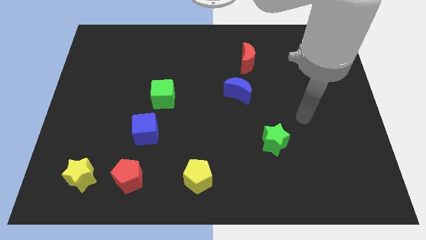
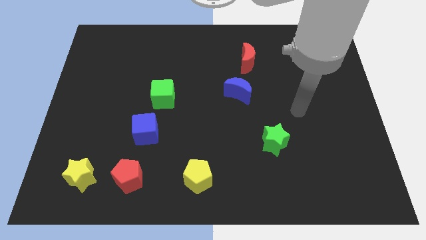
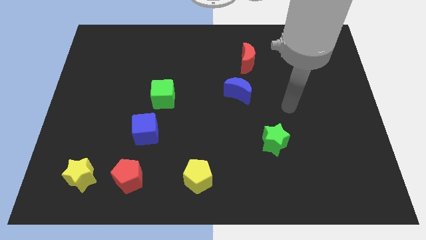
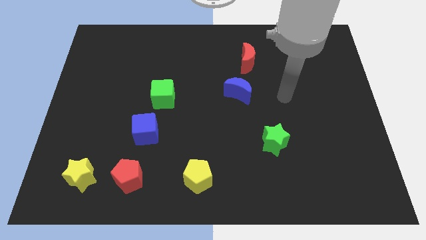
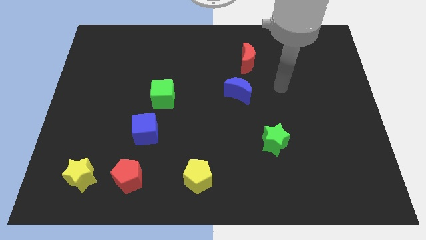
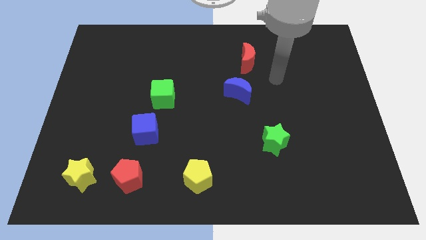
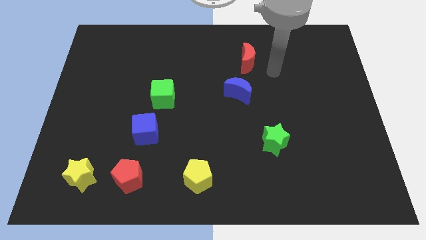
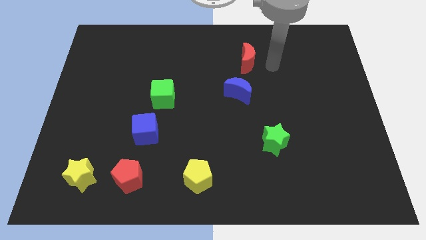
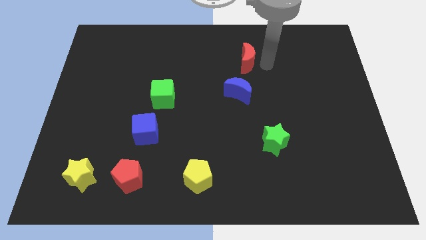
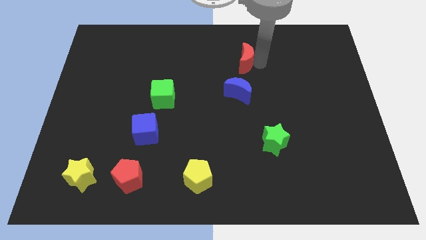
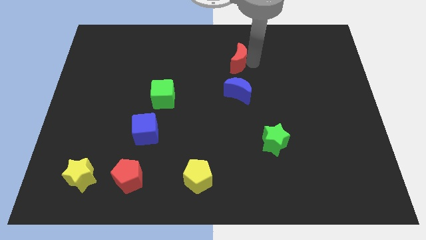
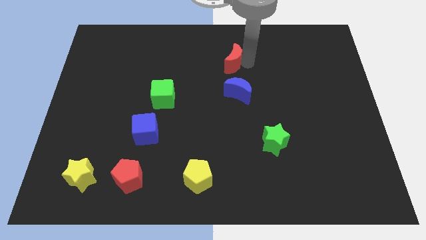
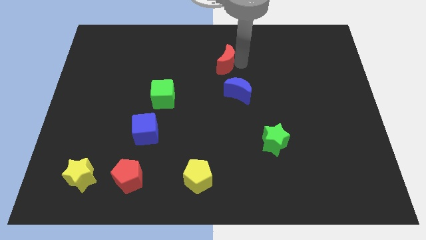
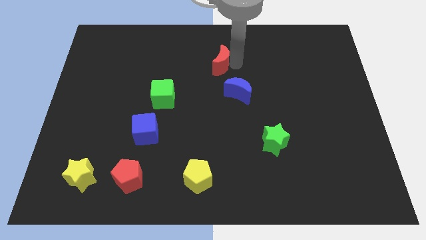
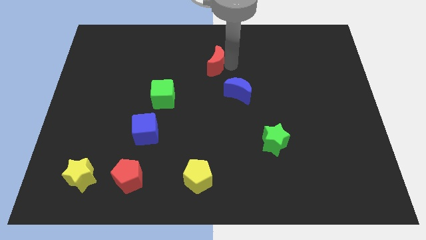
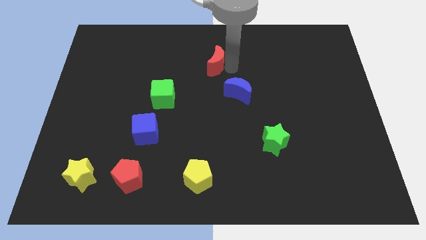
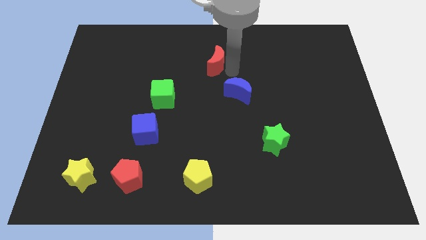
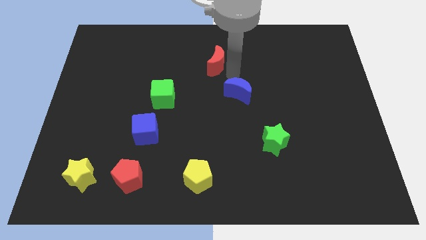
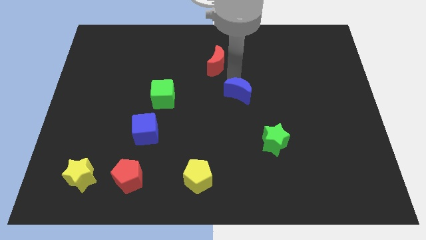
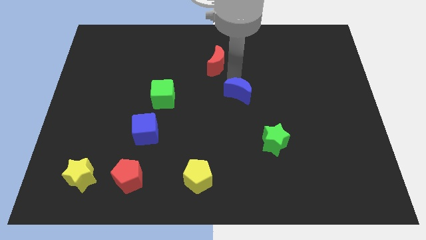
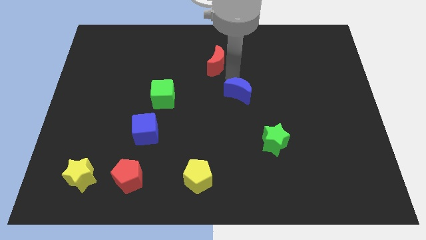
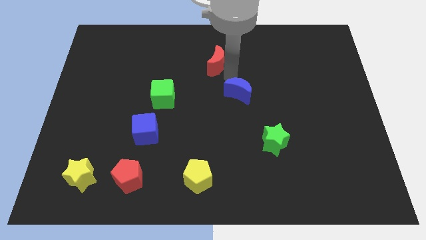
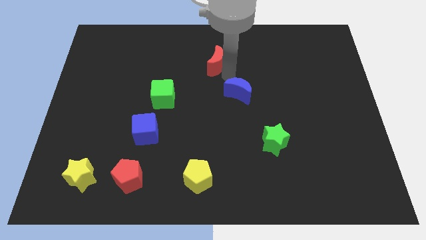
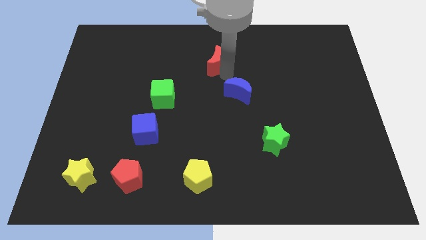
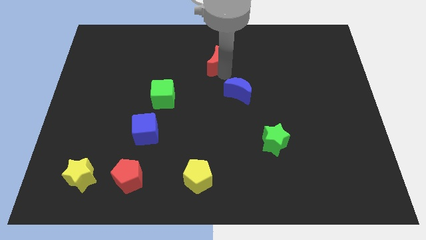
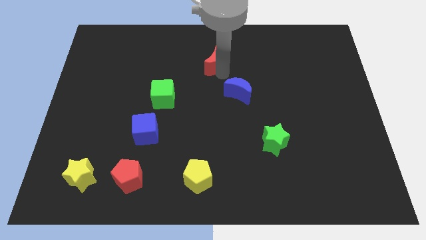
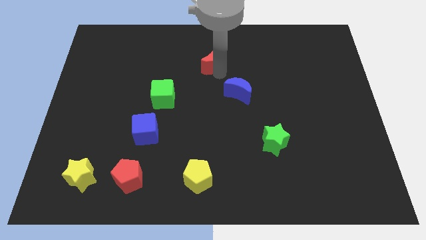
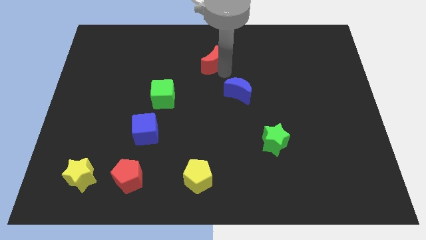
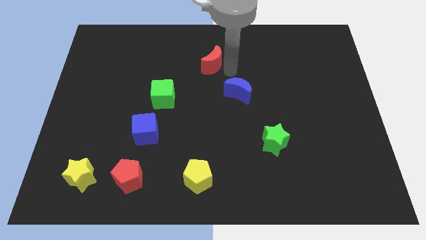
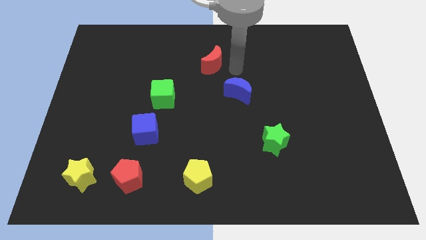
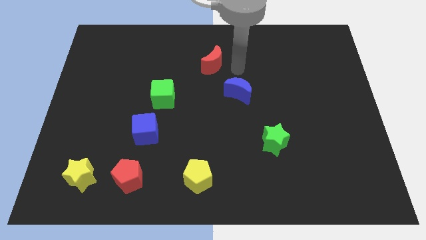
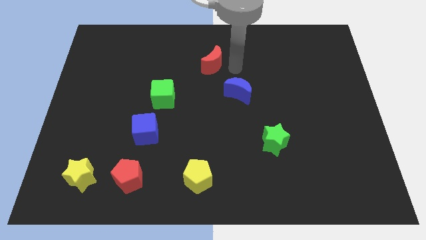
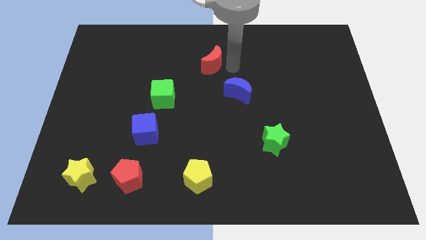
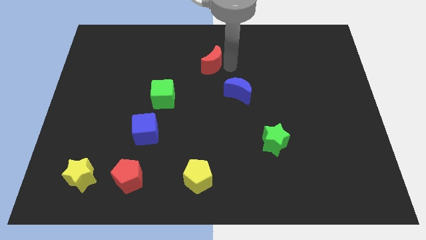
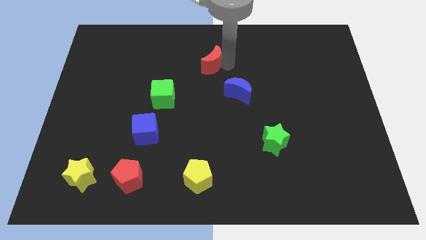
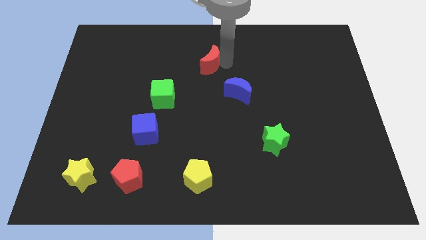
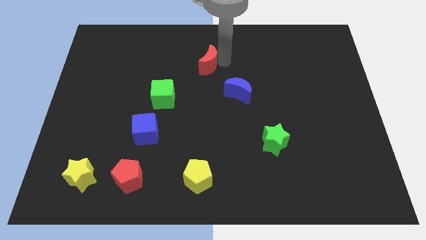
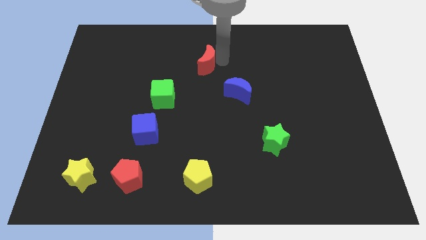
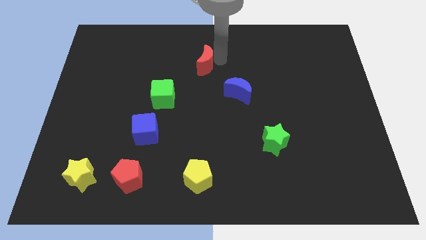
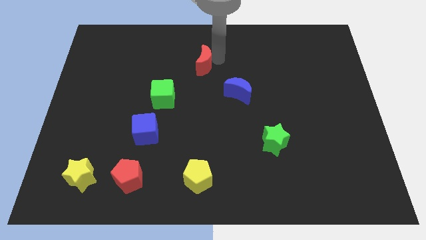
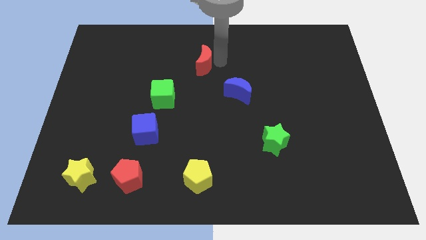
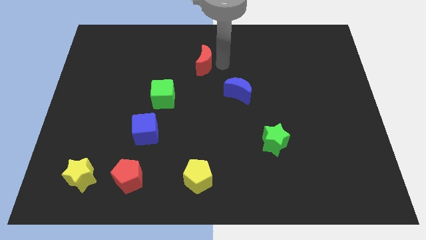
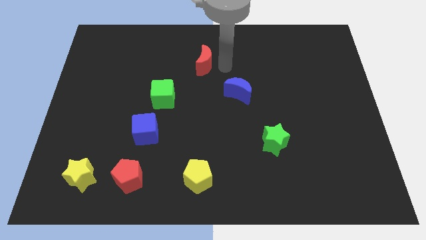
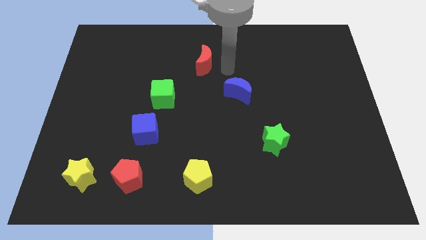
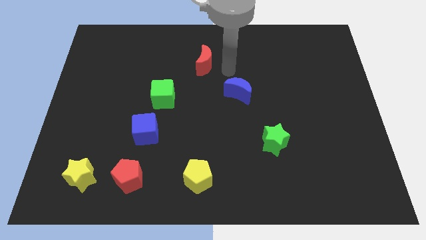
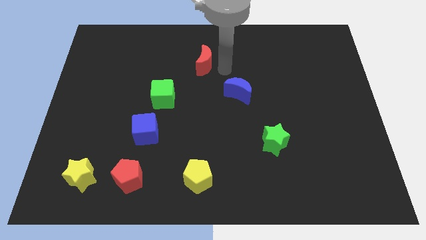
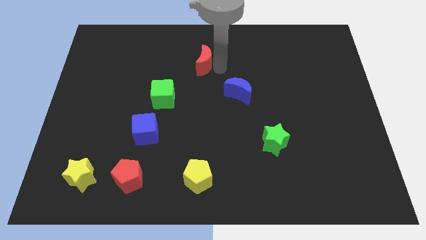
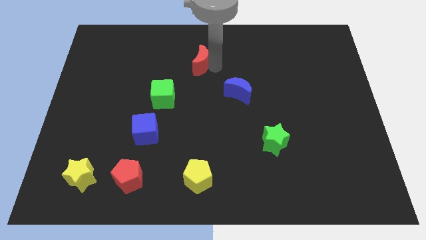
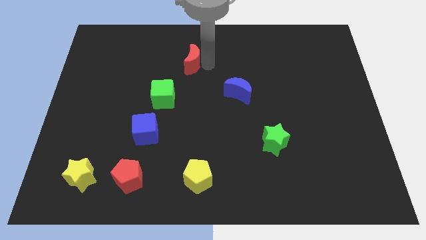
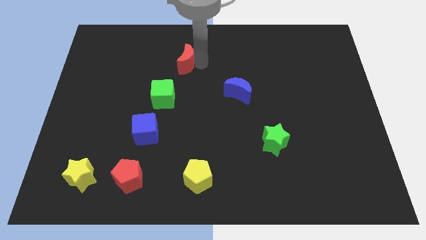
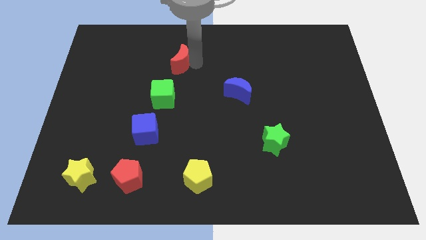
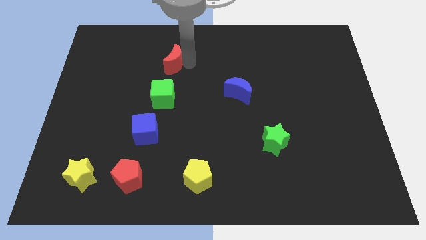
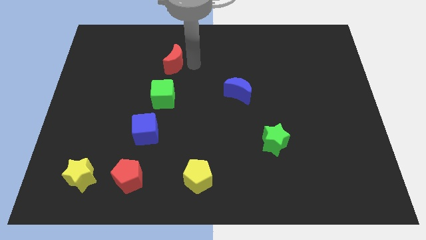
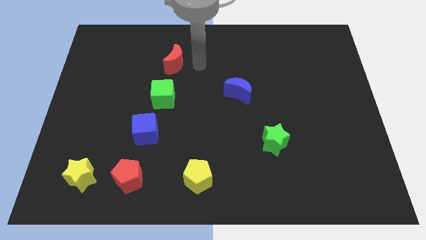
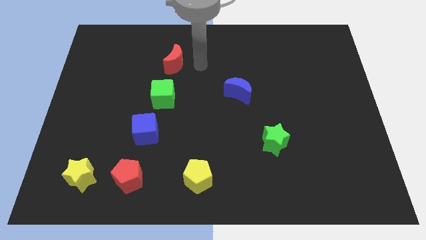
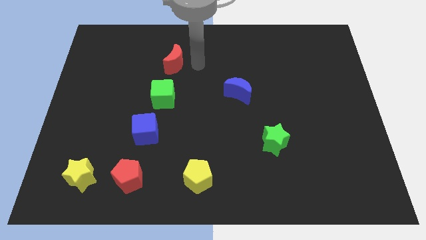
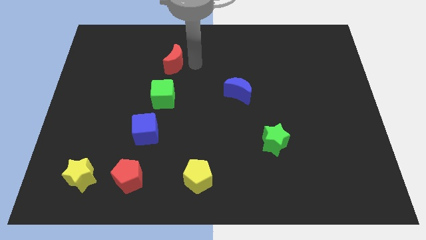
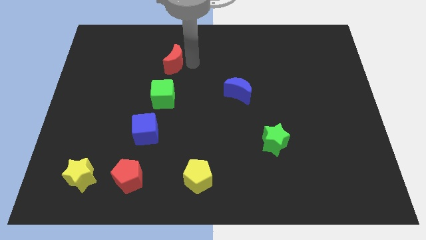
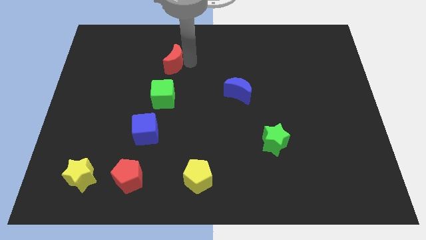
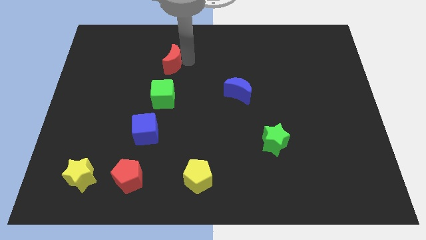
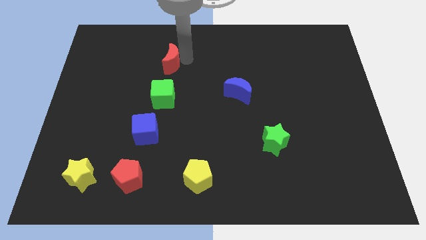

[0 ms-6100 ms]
move the red moon to the left

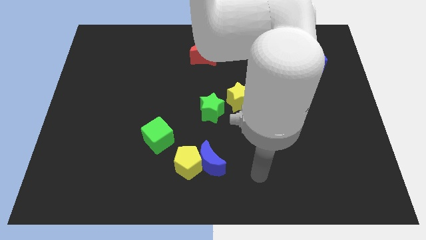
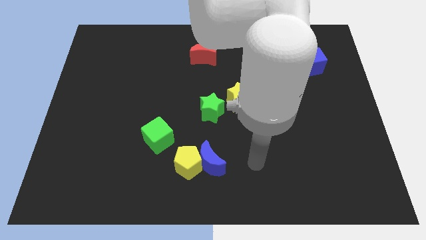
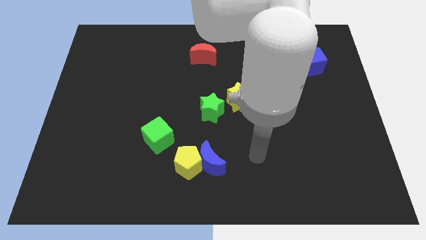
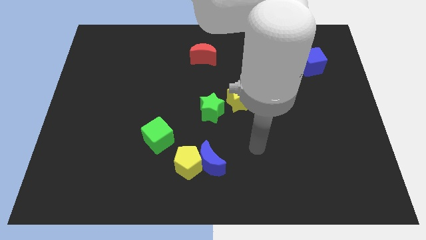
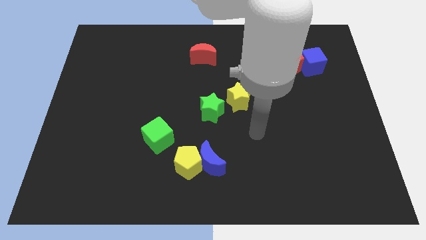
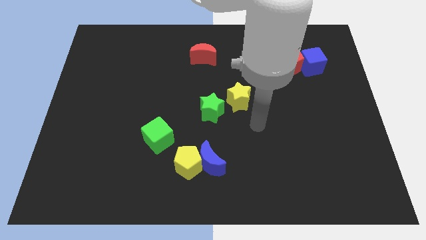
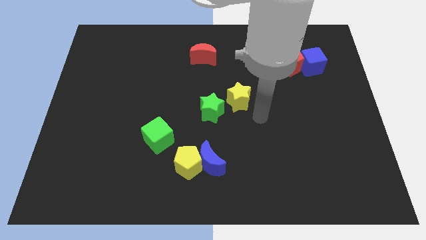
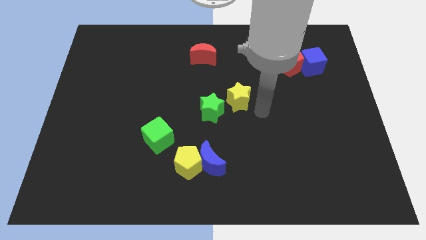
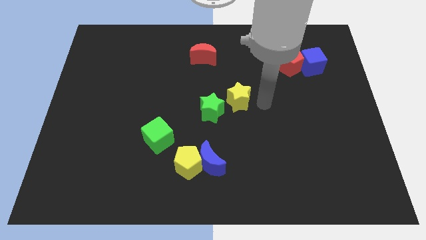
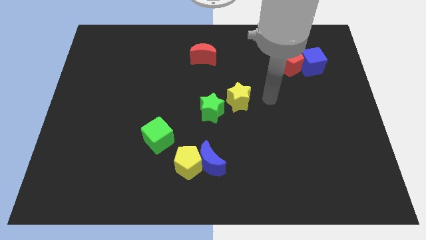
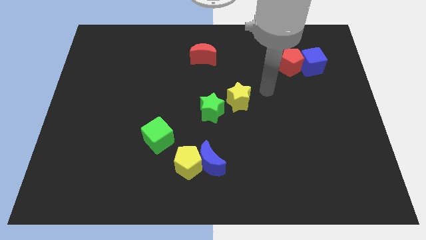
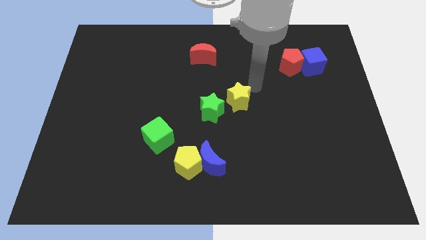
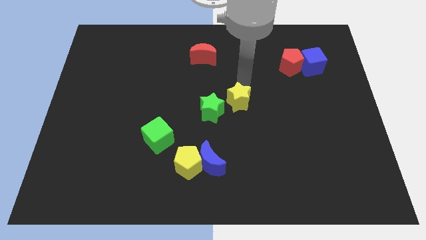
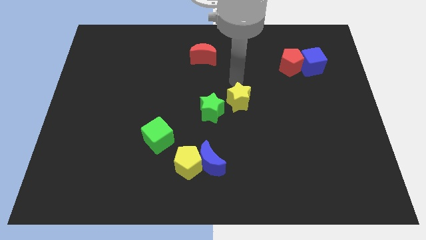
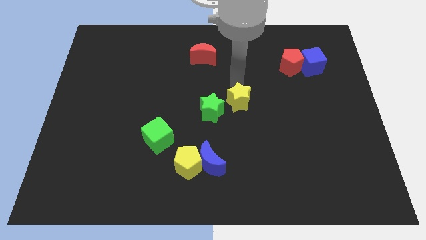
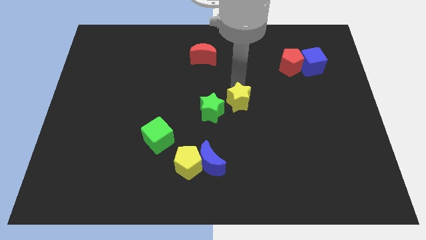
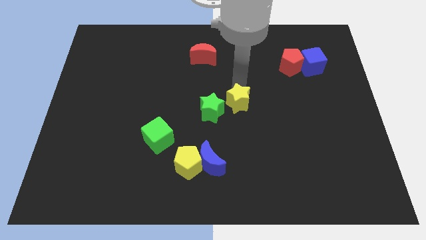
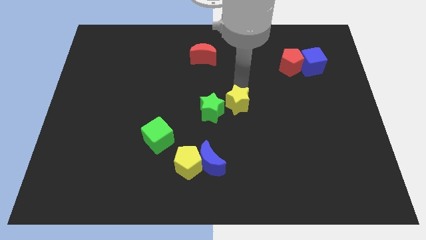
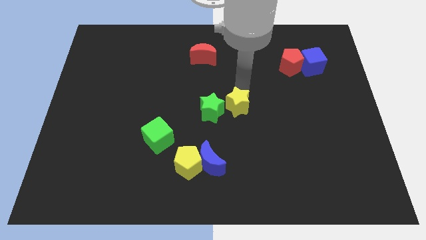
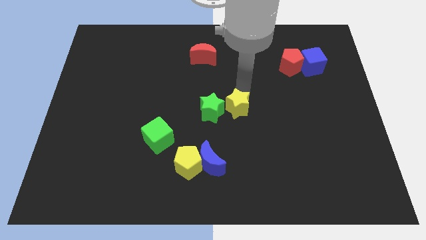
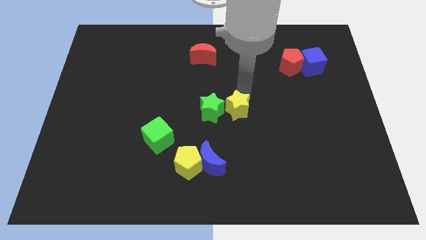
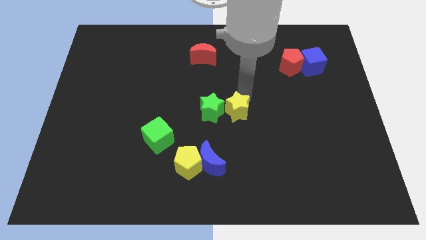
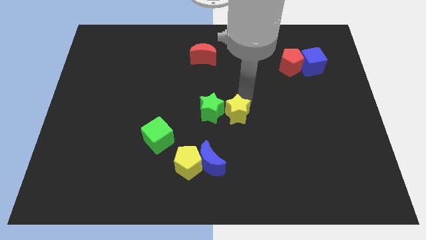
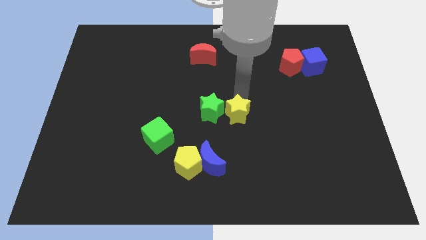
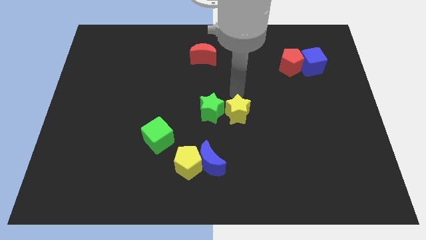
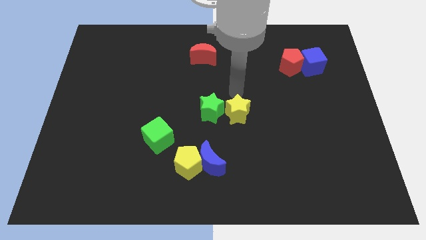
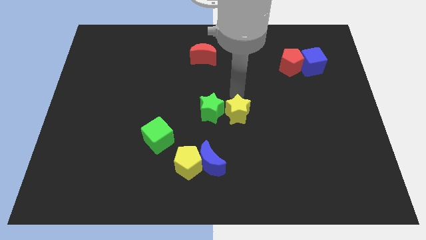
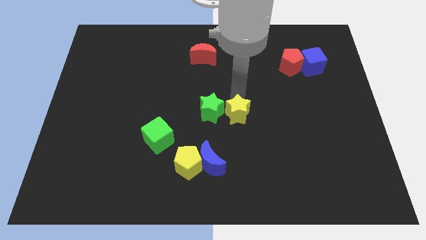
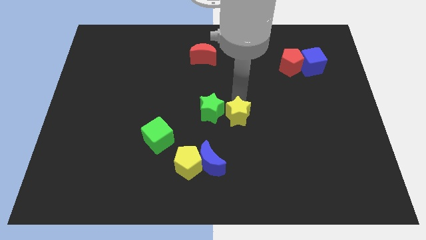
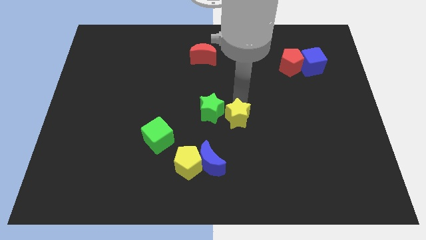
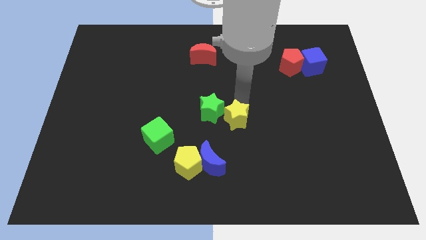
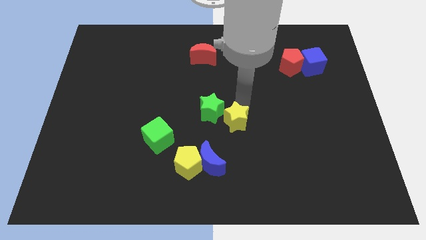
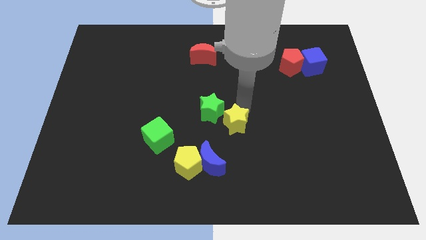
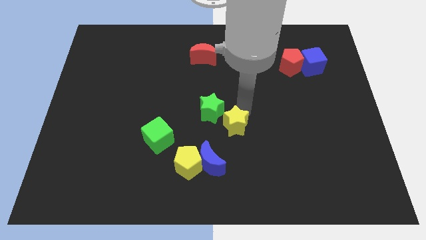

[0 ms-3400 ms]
move the yellow star a bit downwards
